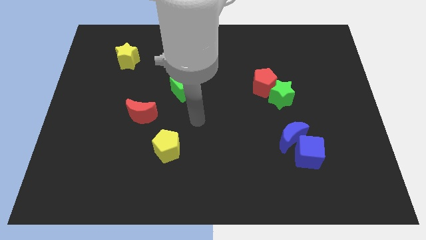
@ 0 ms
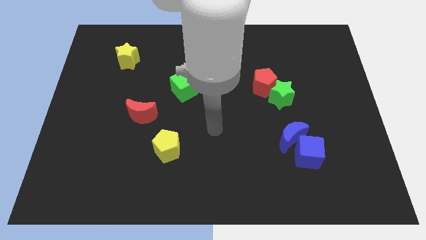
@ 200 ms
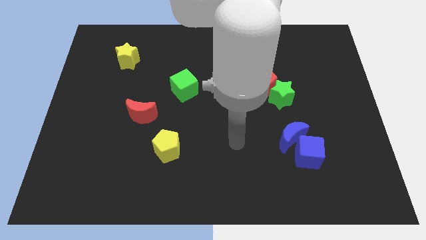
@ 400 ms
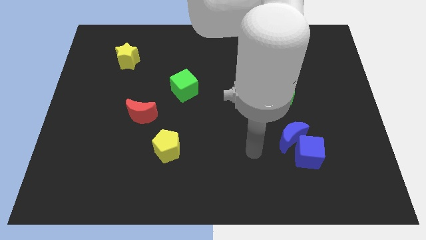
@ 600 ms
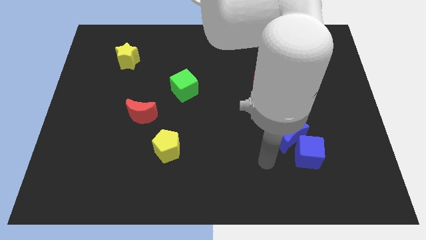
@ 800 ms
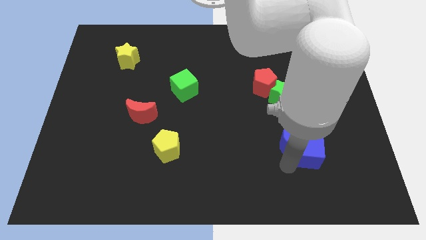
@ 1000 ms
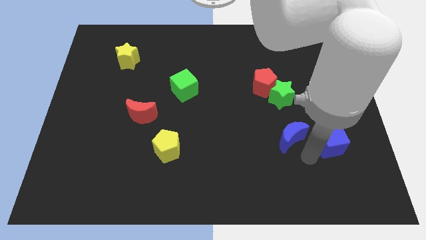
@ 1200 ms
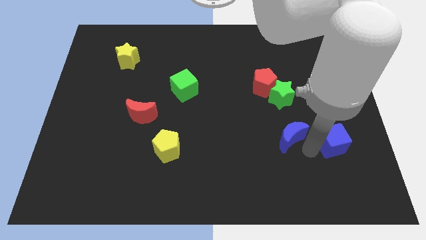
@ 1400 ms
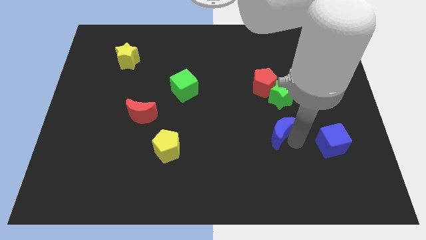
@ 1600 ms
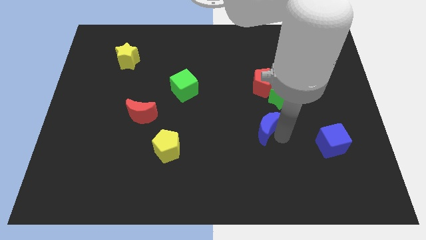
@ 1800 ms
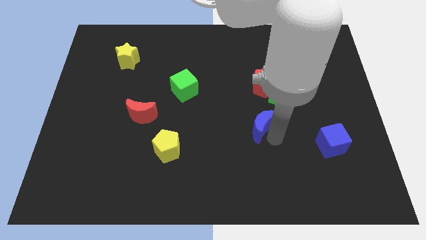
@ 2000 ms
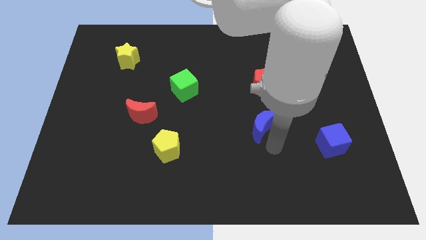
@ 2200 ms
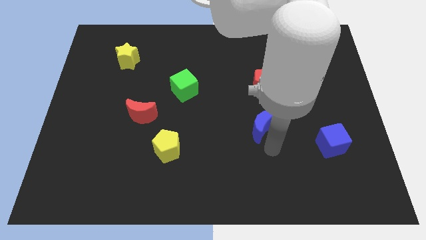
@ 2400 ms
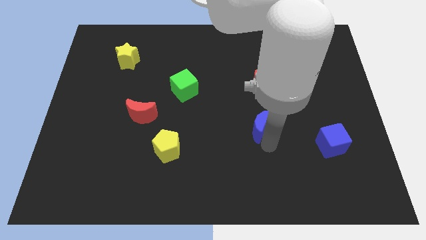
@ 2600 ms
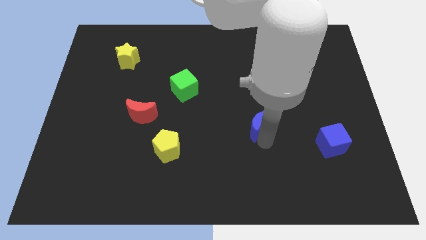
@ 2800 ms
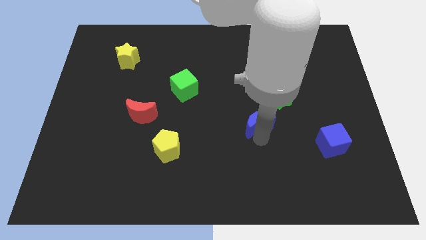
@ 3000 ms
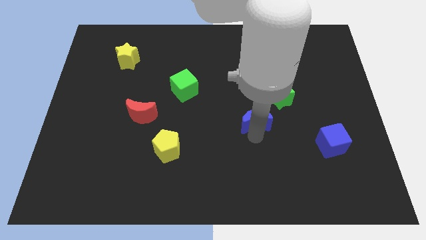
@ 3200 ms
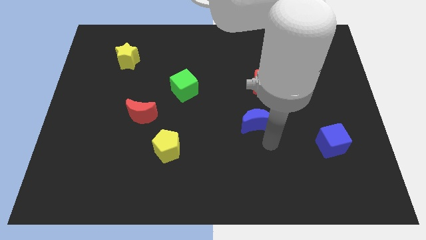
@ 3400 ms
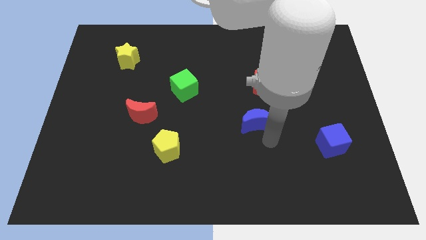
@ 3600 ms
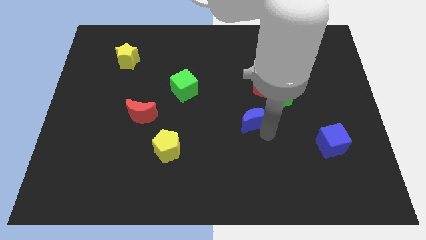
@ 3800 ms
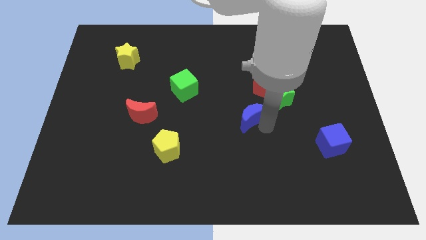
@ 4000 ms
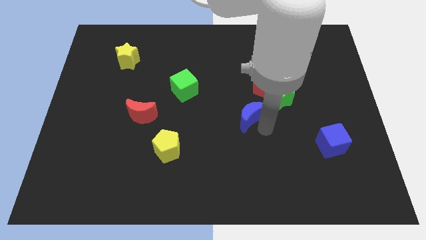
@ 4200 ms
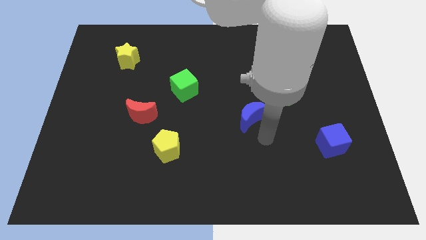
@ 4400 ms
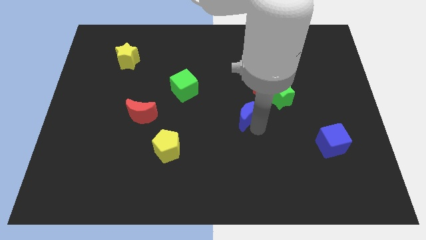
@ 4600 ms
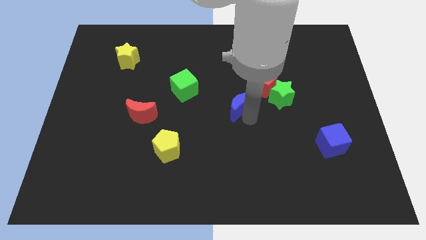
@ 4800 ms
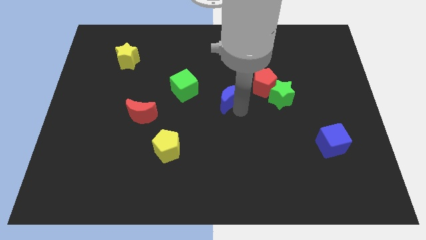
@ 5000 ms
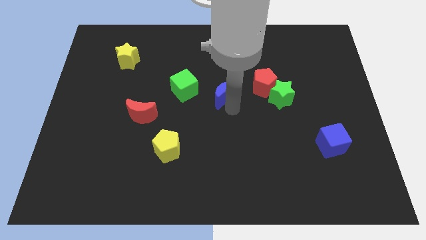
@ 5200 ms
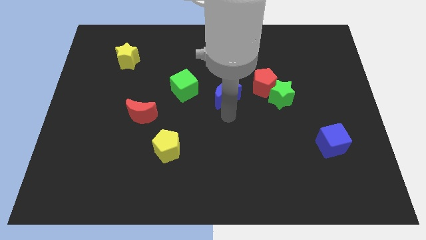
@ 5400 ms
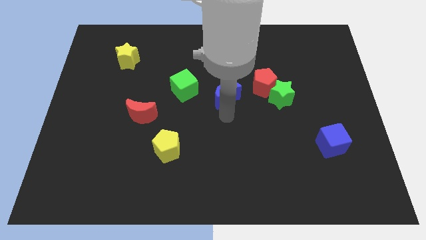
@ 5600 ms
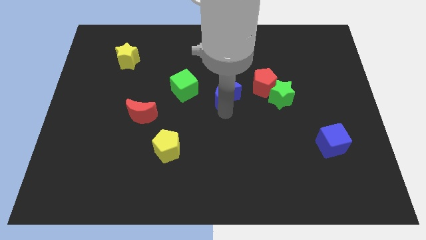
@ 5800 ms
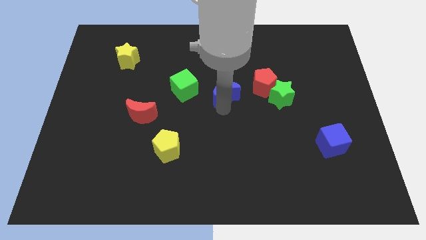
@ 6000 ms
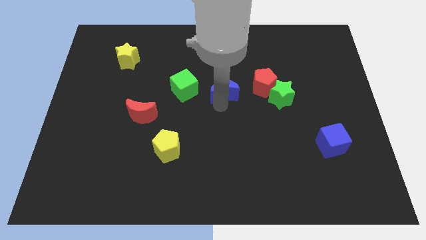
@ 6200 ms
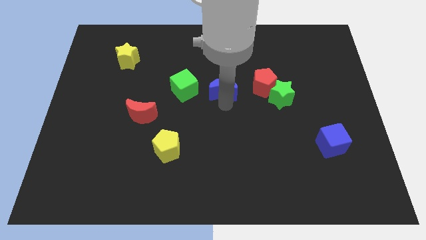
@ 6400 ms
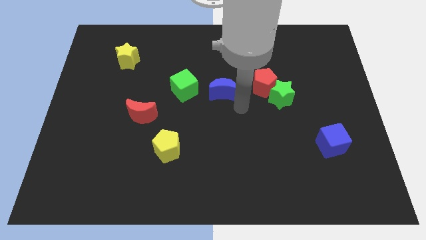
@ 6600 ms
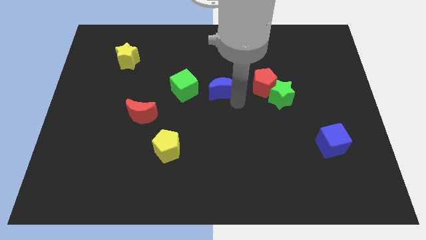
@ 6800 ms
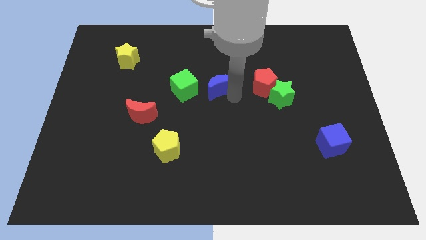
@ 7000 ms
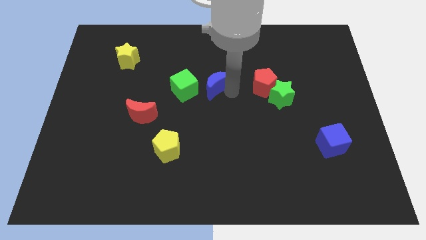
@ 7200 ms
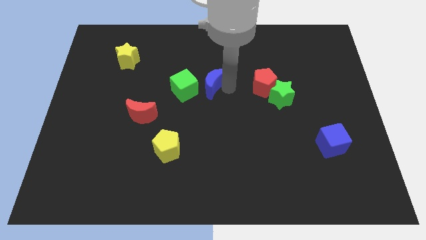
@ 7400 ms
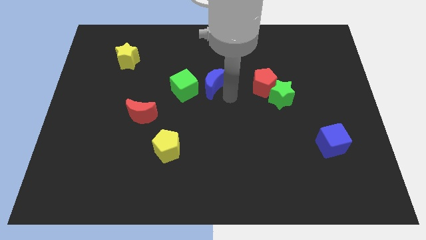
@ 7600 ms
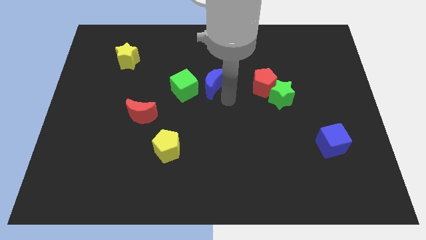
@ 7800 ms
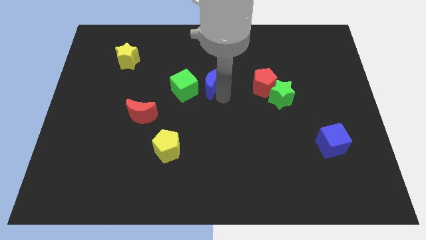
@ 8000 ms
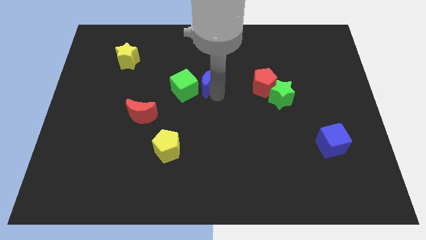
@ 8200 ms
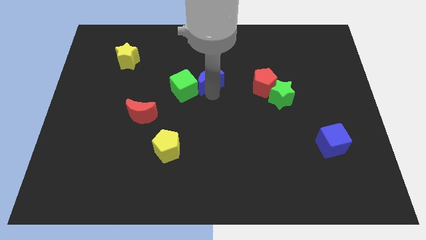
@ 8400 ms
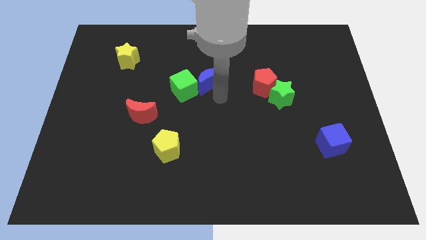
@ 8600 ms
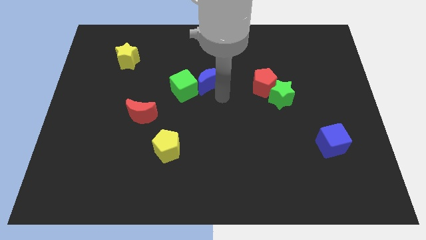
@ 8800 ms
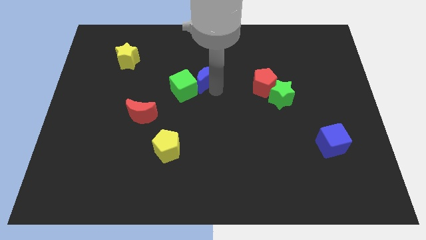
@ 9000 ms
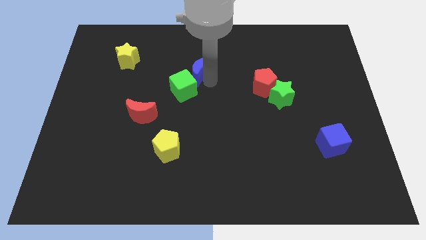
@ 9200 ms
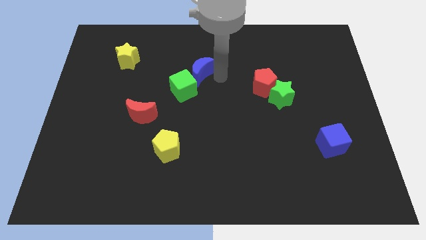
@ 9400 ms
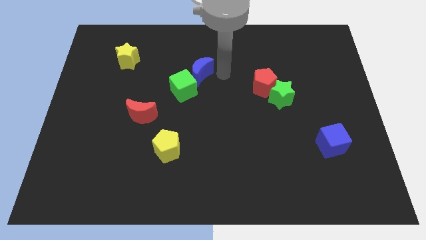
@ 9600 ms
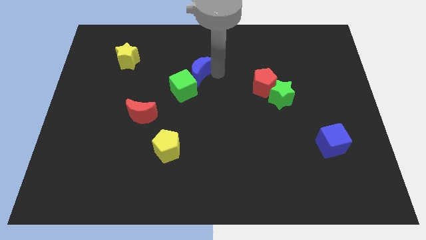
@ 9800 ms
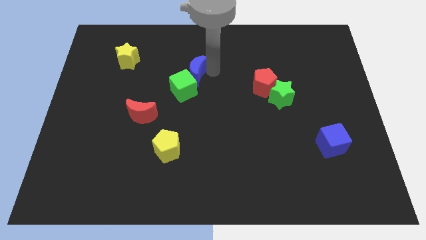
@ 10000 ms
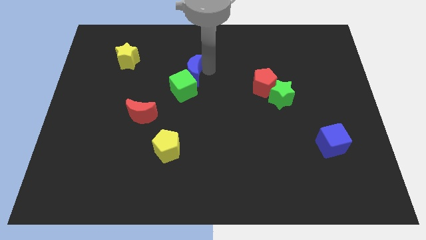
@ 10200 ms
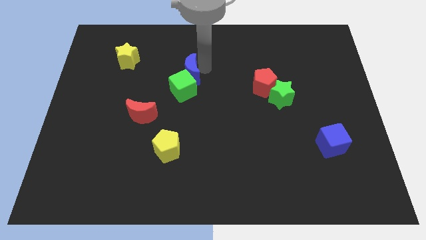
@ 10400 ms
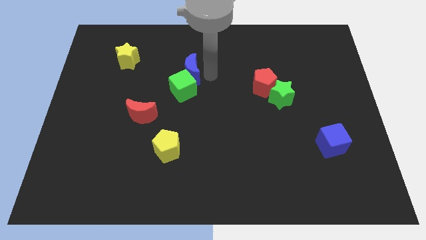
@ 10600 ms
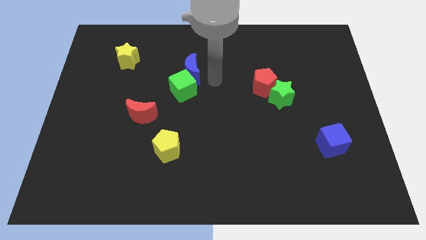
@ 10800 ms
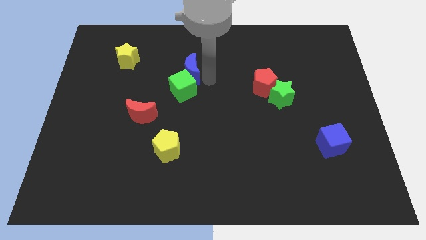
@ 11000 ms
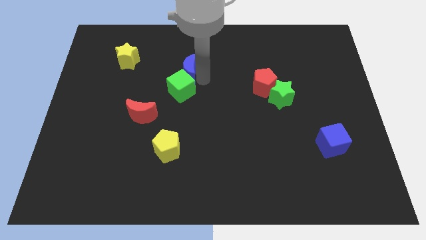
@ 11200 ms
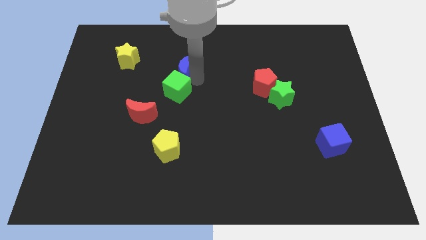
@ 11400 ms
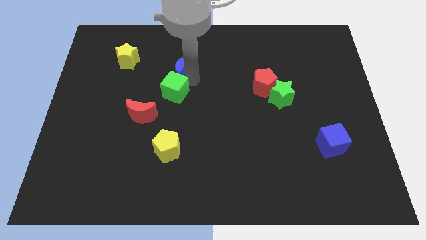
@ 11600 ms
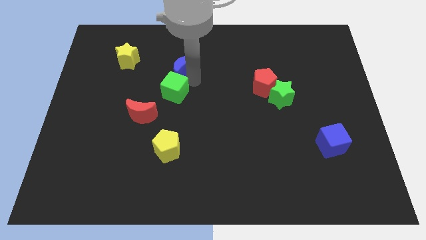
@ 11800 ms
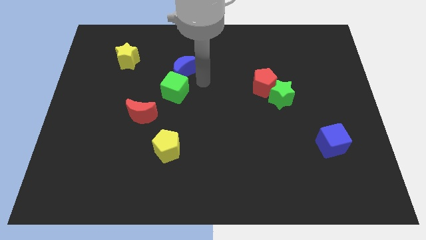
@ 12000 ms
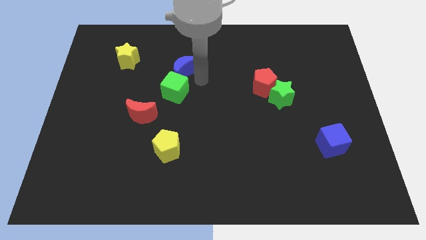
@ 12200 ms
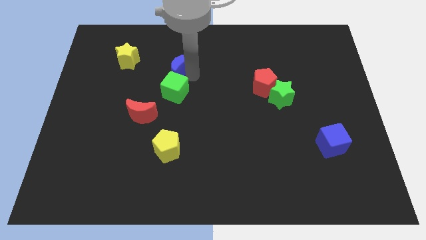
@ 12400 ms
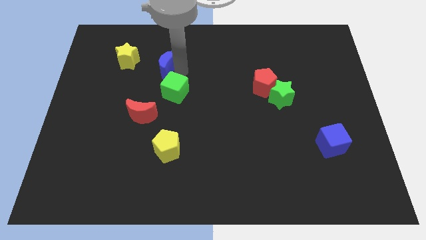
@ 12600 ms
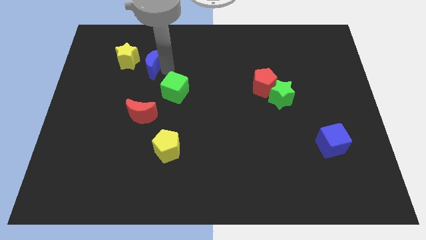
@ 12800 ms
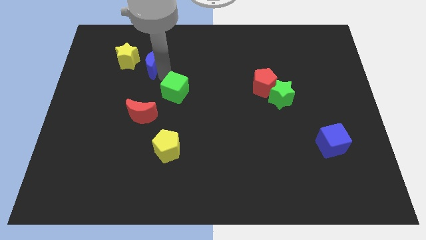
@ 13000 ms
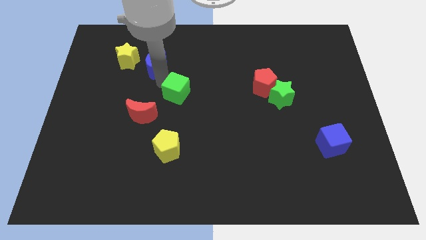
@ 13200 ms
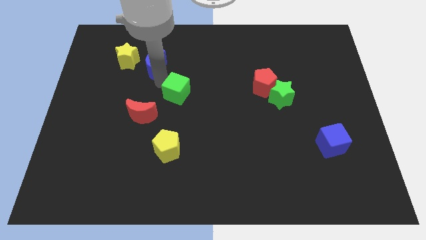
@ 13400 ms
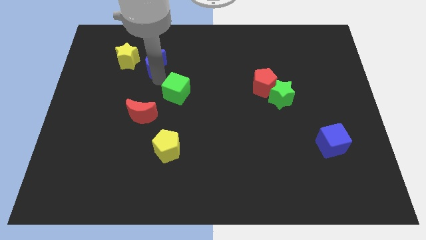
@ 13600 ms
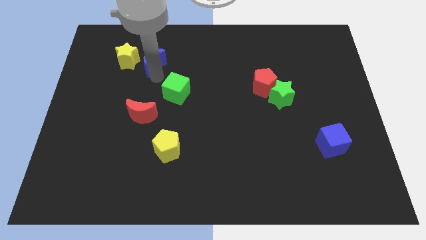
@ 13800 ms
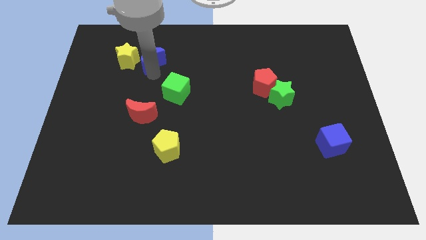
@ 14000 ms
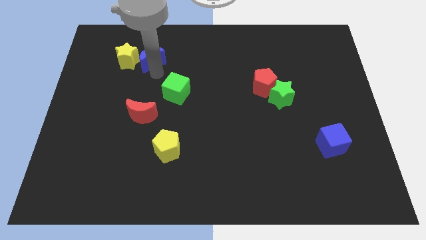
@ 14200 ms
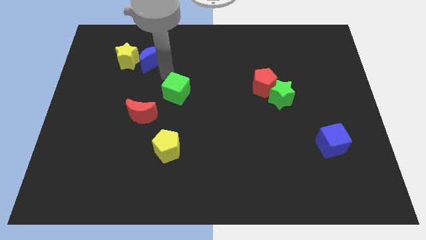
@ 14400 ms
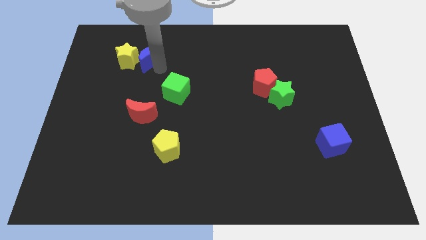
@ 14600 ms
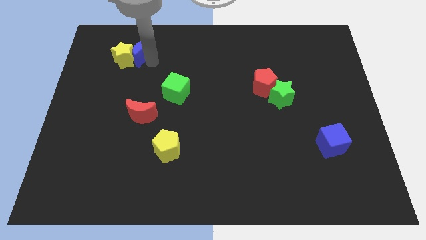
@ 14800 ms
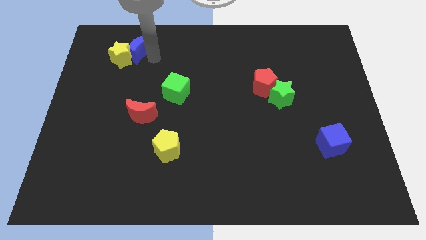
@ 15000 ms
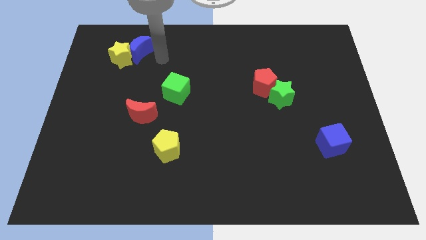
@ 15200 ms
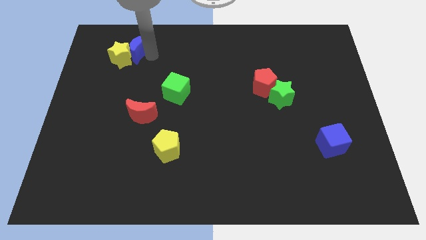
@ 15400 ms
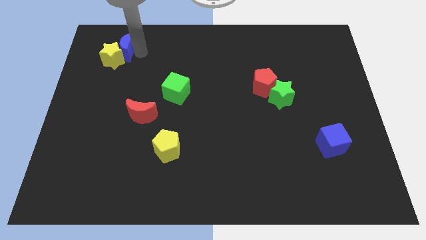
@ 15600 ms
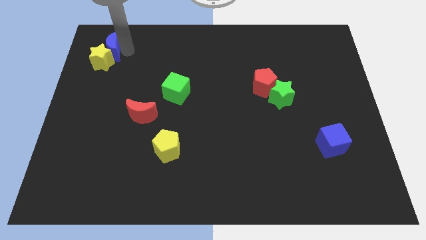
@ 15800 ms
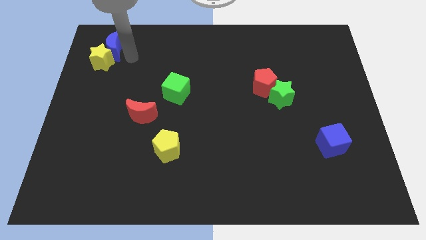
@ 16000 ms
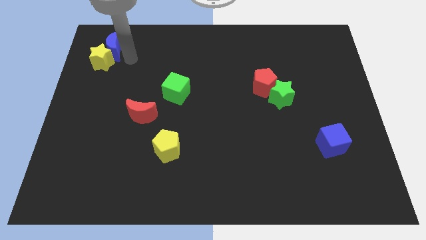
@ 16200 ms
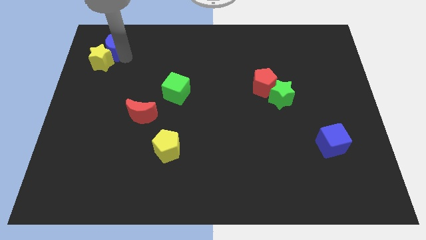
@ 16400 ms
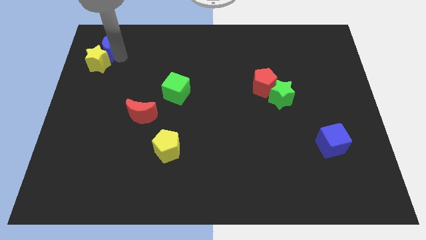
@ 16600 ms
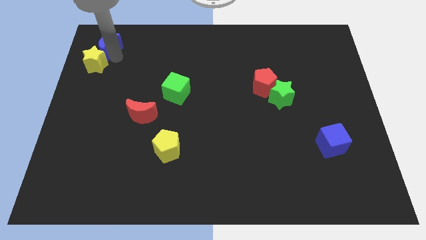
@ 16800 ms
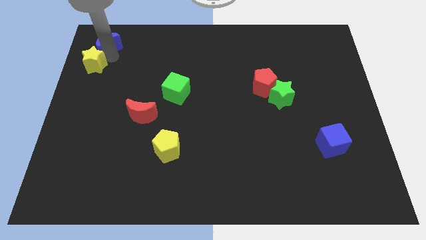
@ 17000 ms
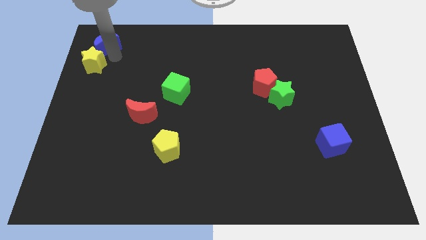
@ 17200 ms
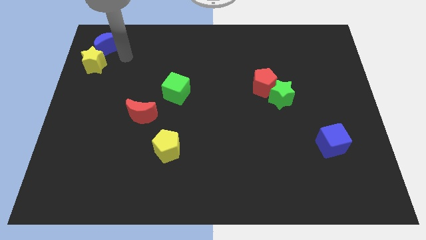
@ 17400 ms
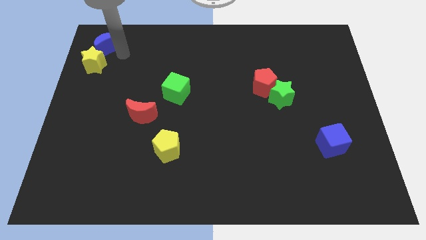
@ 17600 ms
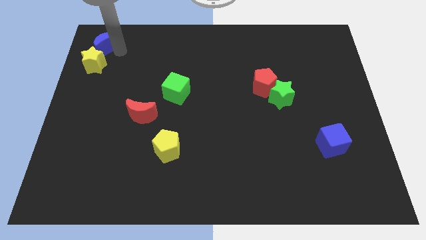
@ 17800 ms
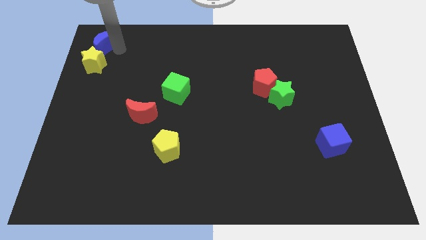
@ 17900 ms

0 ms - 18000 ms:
put the blue moon to the top left corner
